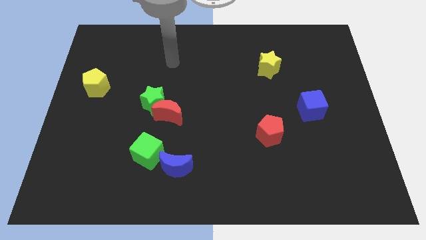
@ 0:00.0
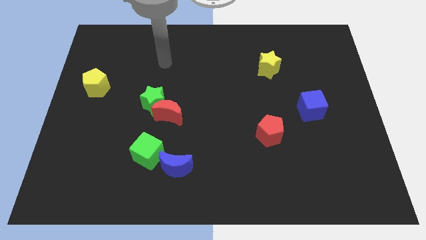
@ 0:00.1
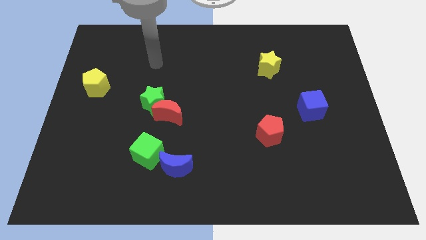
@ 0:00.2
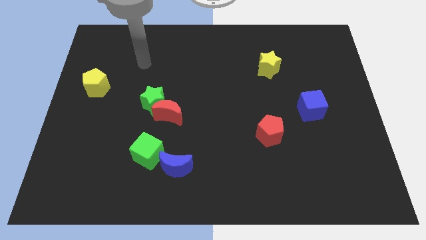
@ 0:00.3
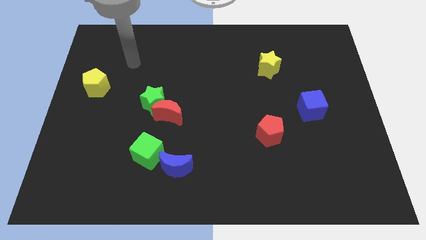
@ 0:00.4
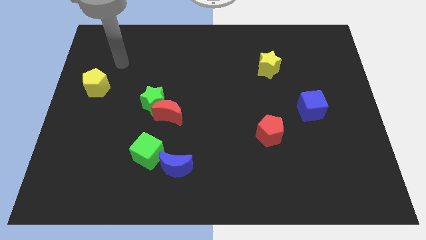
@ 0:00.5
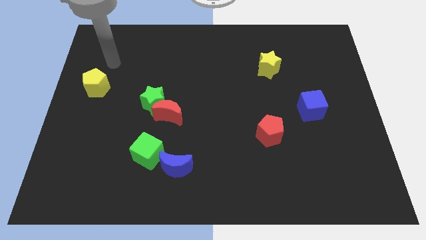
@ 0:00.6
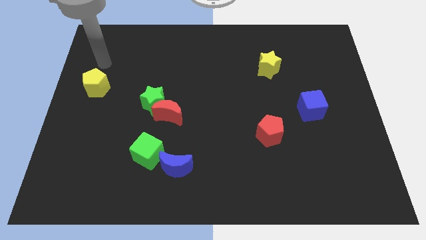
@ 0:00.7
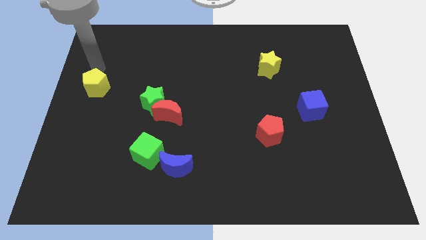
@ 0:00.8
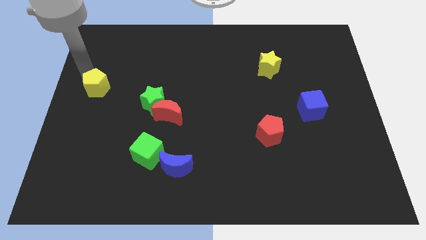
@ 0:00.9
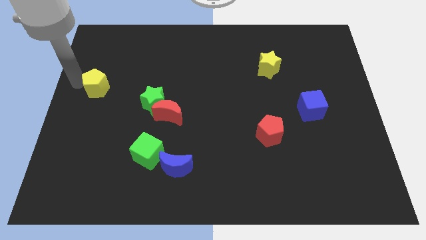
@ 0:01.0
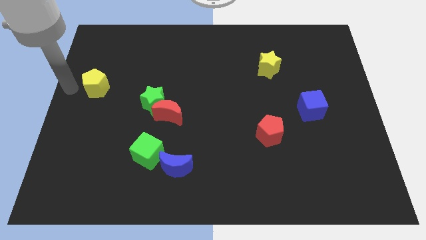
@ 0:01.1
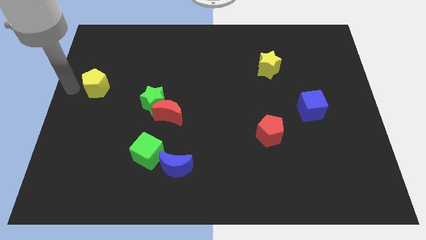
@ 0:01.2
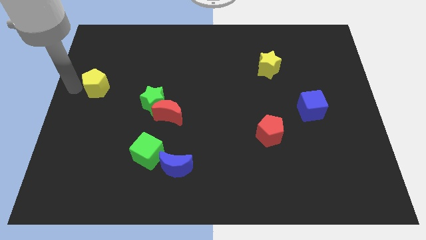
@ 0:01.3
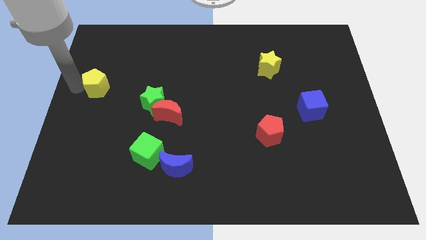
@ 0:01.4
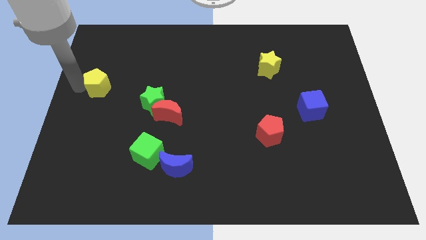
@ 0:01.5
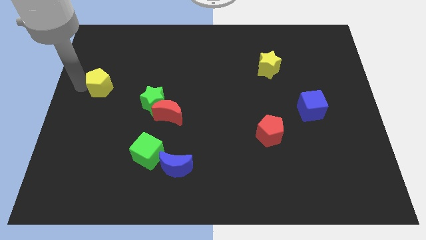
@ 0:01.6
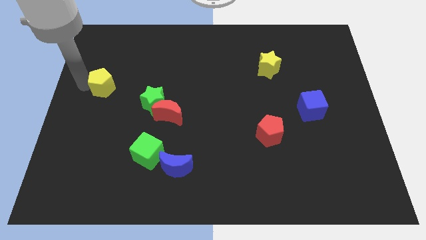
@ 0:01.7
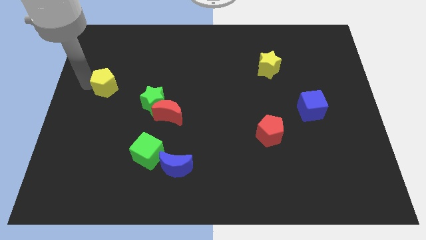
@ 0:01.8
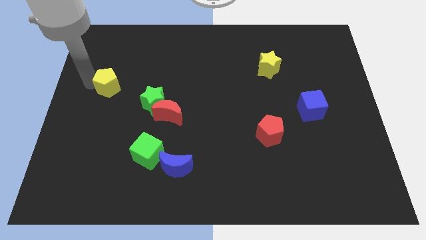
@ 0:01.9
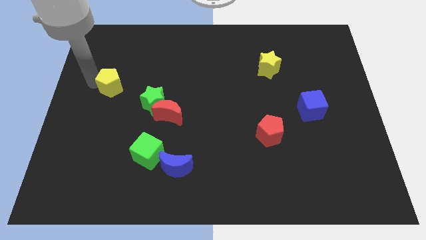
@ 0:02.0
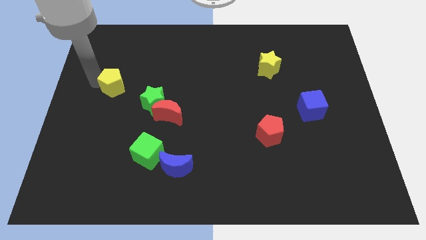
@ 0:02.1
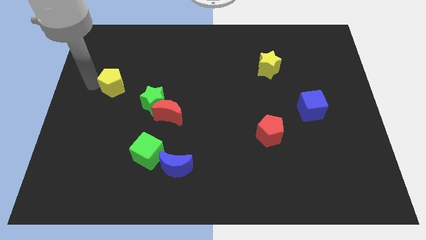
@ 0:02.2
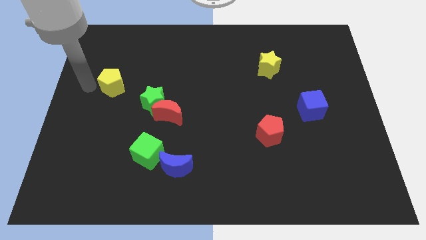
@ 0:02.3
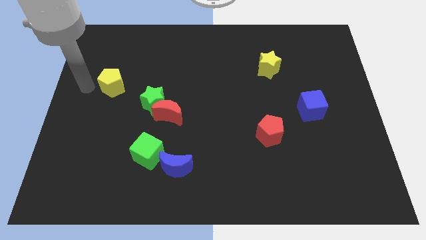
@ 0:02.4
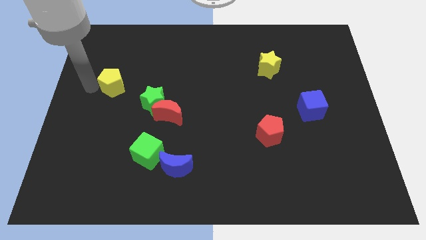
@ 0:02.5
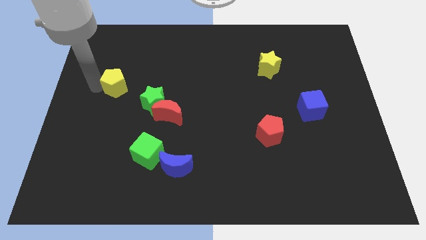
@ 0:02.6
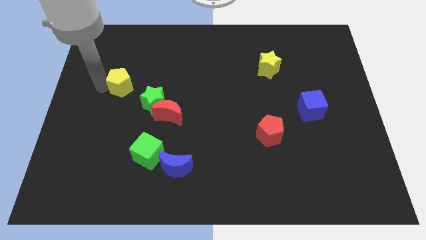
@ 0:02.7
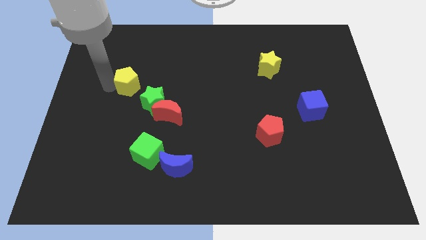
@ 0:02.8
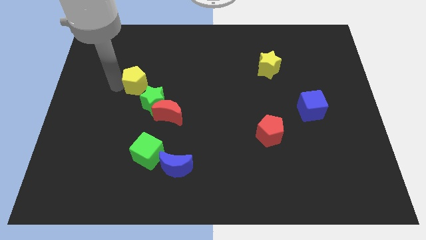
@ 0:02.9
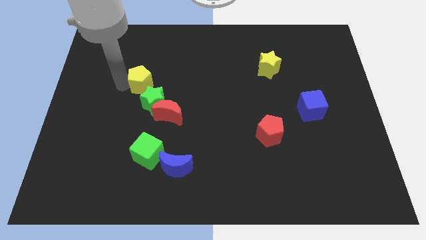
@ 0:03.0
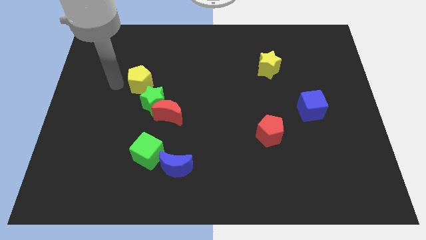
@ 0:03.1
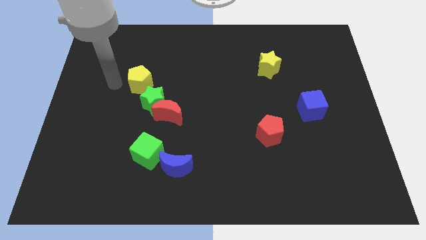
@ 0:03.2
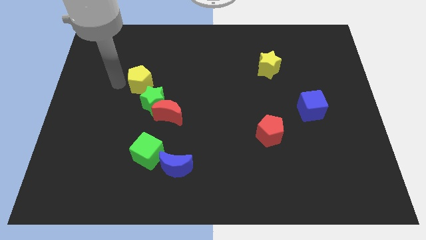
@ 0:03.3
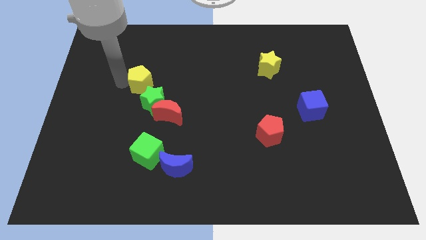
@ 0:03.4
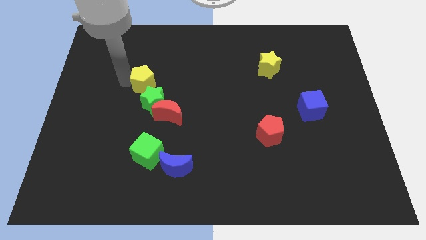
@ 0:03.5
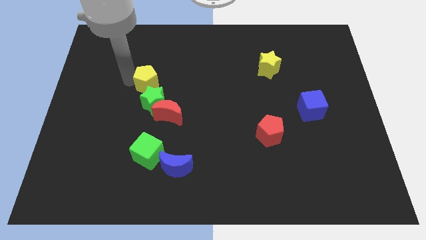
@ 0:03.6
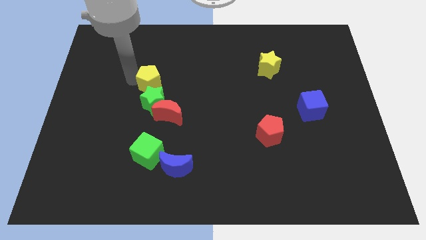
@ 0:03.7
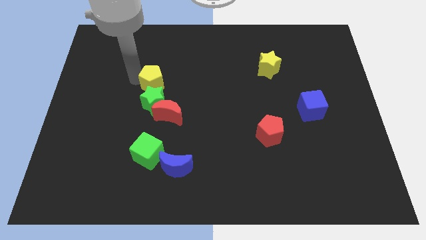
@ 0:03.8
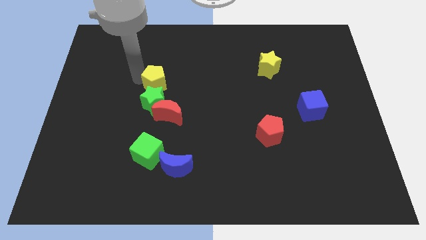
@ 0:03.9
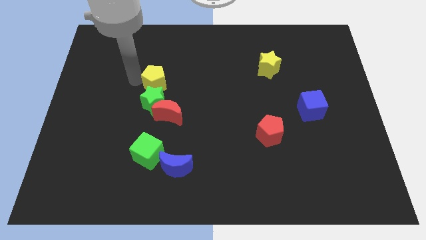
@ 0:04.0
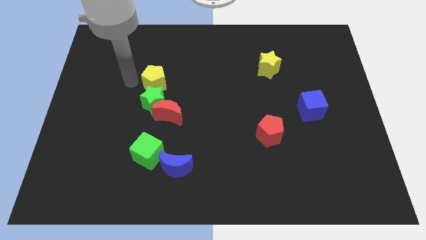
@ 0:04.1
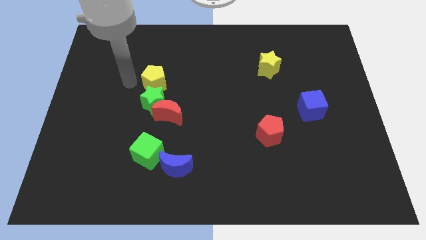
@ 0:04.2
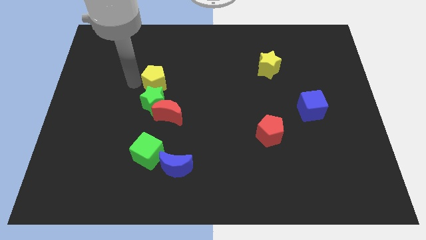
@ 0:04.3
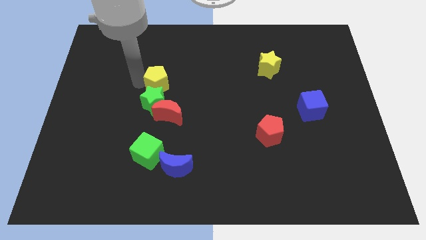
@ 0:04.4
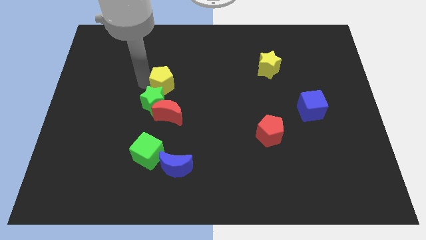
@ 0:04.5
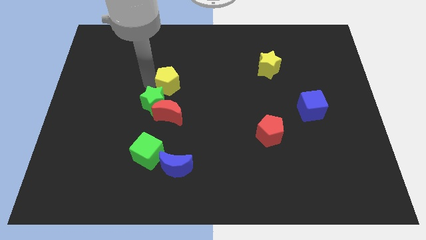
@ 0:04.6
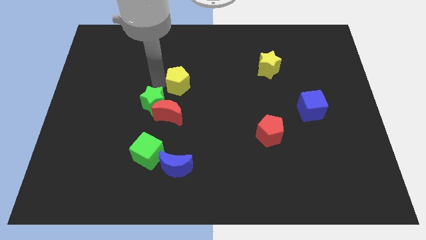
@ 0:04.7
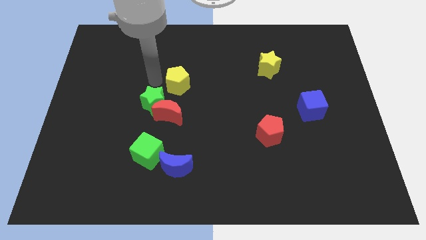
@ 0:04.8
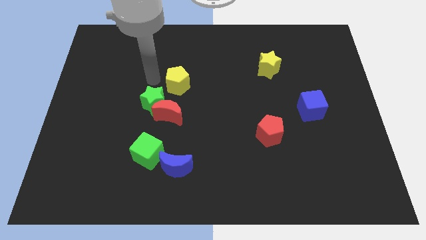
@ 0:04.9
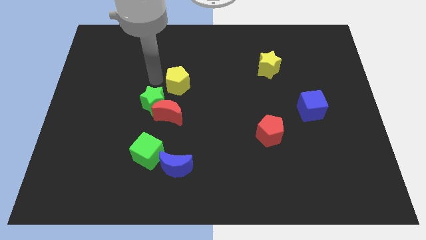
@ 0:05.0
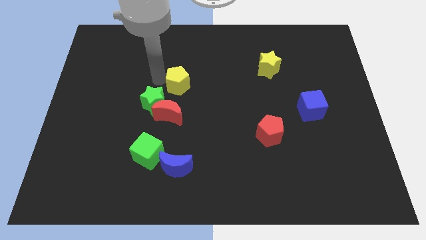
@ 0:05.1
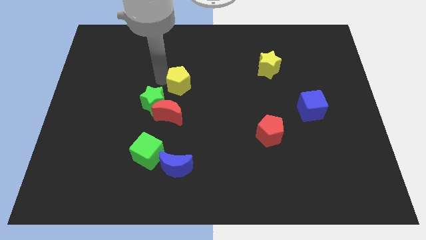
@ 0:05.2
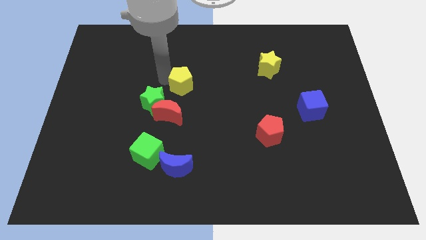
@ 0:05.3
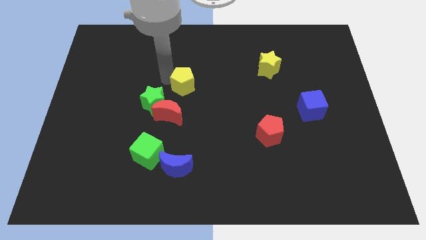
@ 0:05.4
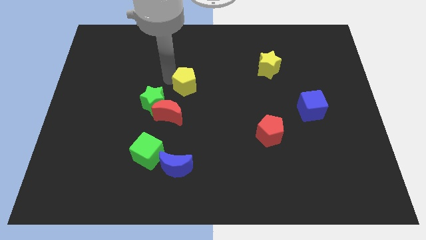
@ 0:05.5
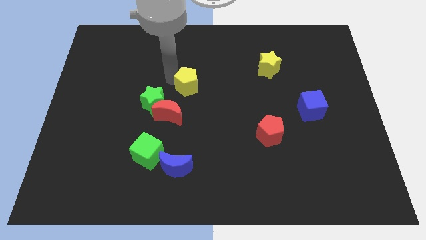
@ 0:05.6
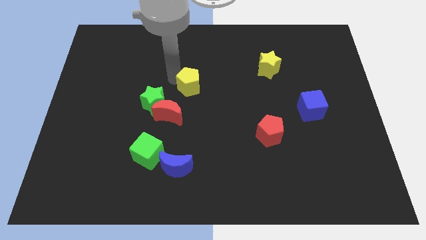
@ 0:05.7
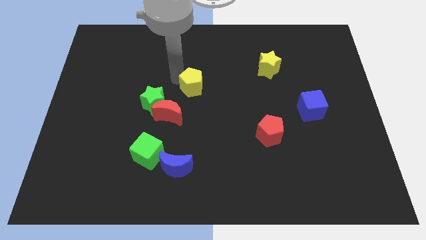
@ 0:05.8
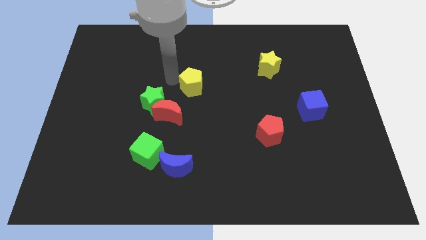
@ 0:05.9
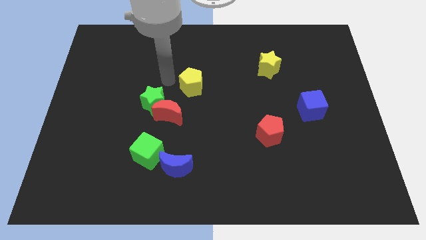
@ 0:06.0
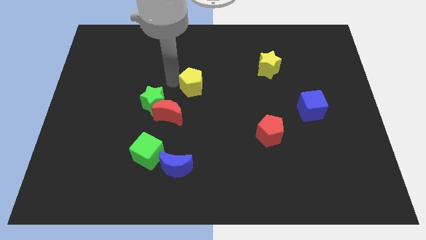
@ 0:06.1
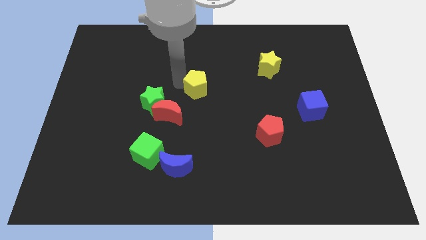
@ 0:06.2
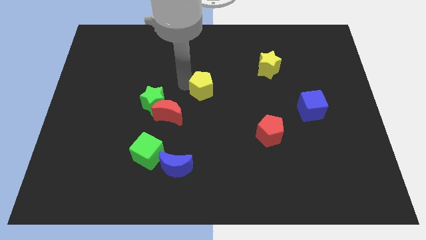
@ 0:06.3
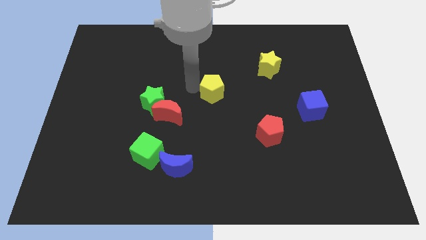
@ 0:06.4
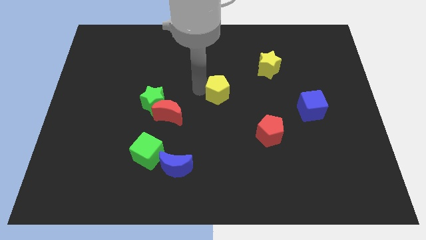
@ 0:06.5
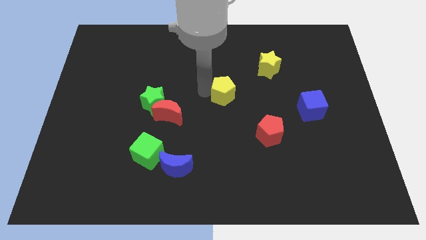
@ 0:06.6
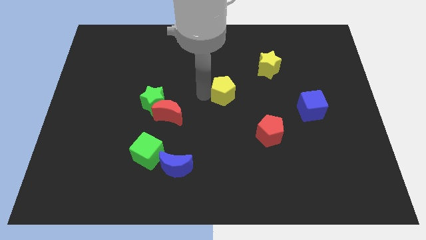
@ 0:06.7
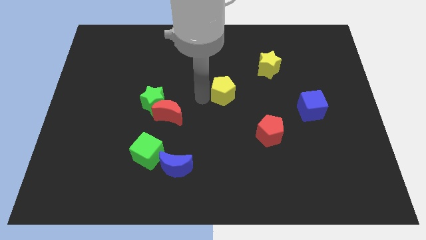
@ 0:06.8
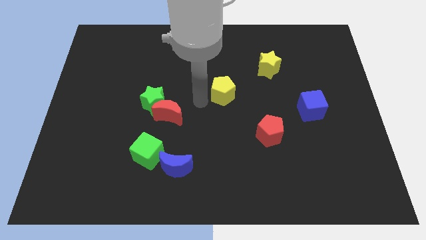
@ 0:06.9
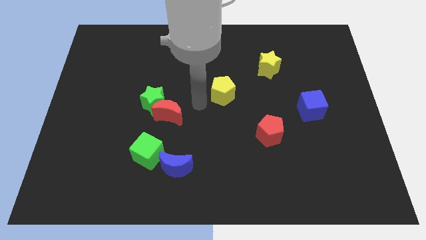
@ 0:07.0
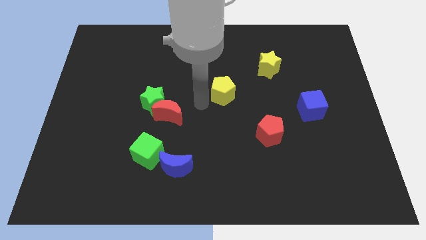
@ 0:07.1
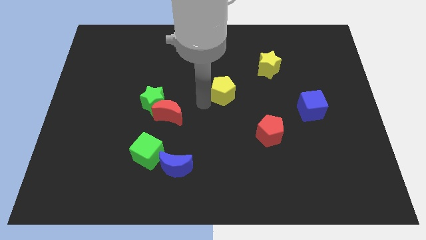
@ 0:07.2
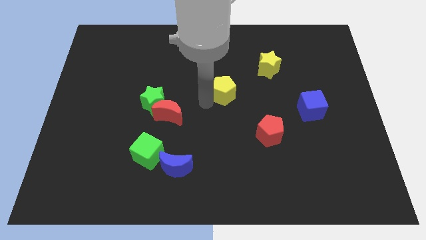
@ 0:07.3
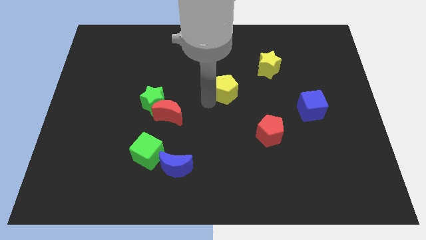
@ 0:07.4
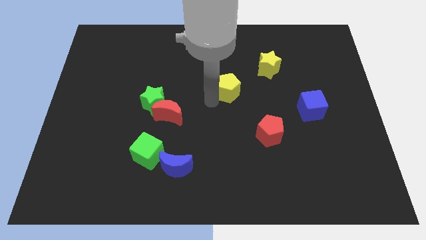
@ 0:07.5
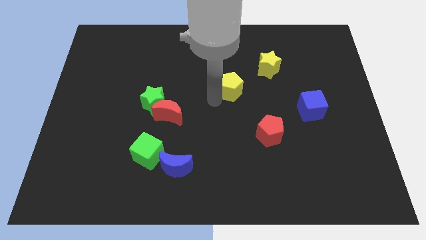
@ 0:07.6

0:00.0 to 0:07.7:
move the yellow pentagon diagonally down and to the left of the yellow star
